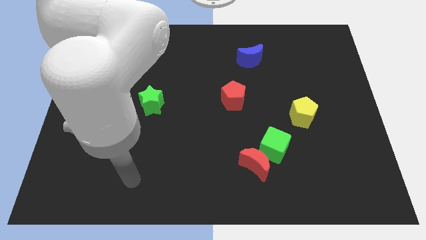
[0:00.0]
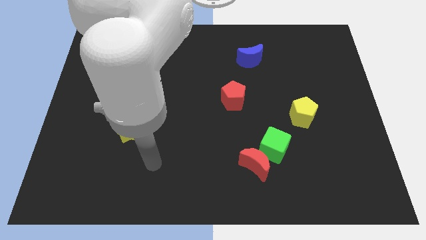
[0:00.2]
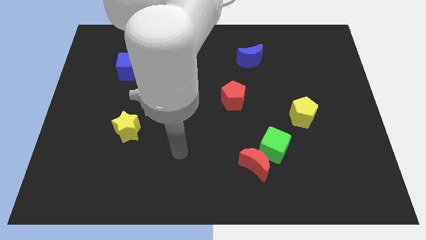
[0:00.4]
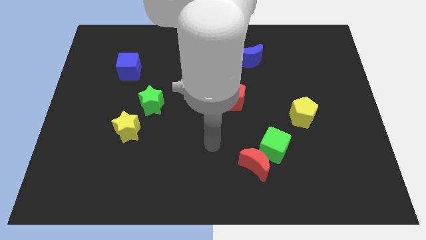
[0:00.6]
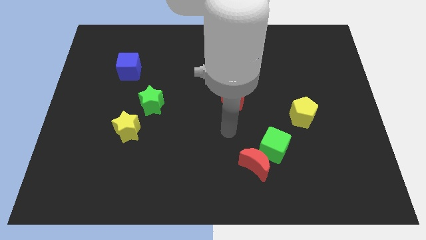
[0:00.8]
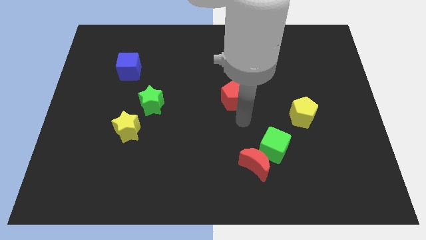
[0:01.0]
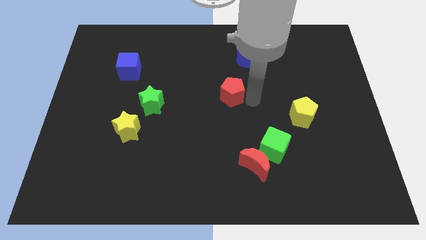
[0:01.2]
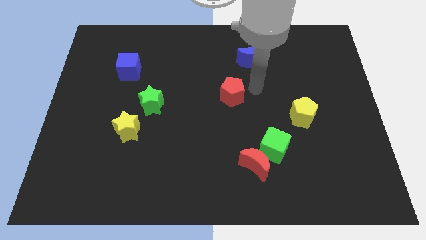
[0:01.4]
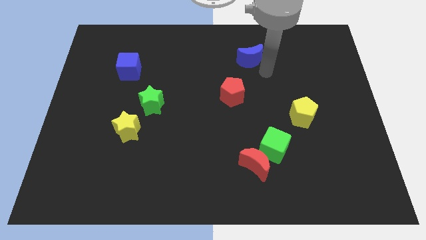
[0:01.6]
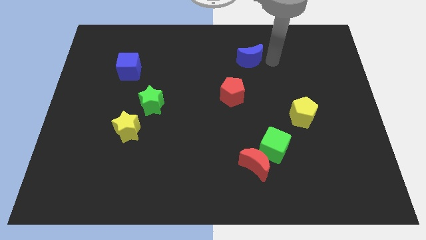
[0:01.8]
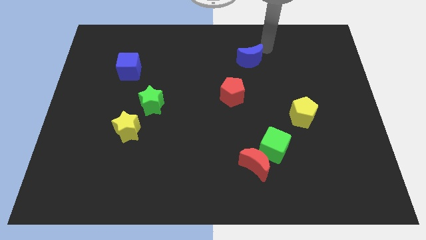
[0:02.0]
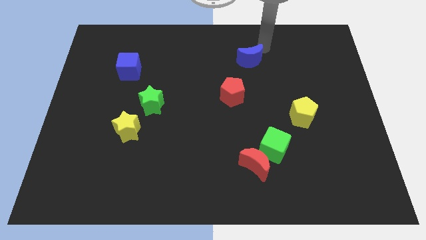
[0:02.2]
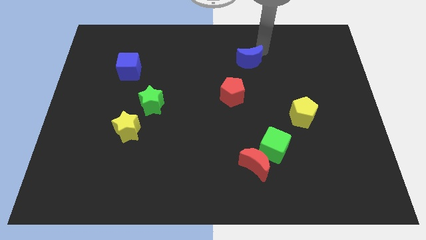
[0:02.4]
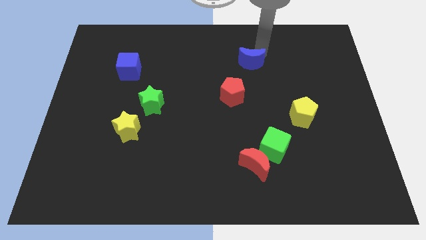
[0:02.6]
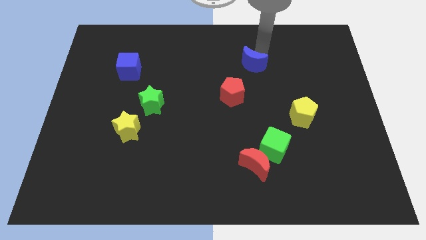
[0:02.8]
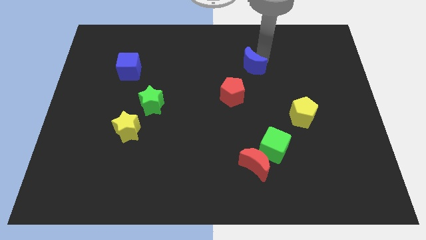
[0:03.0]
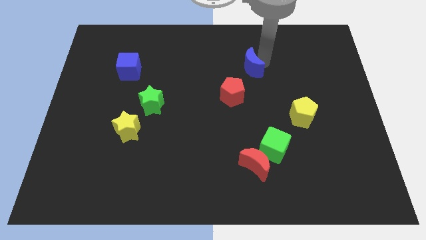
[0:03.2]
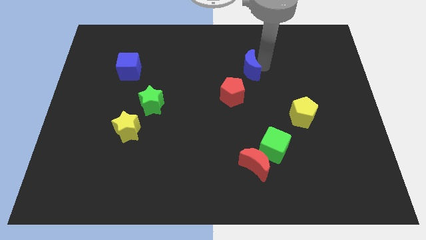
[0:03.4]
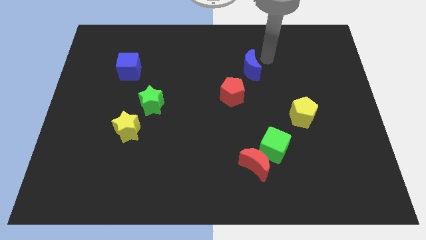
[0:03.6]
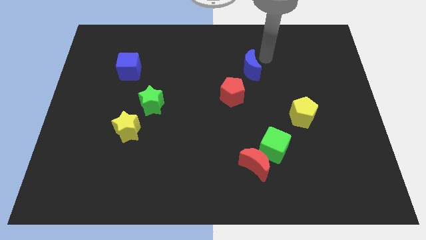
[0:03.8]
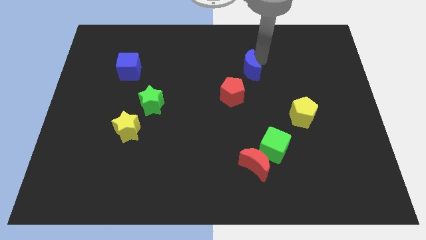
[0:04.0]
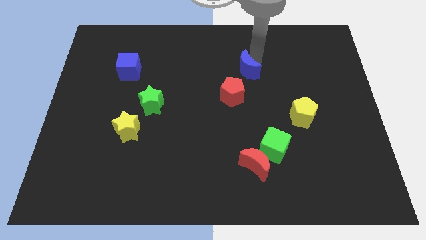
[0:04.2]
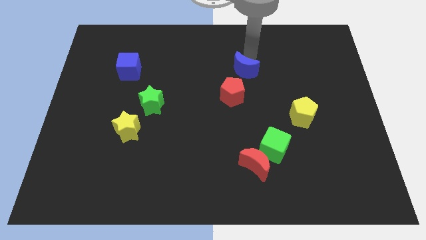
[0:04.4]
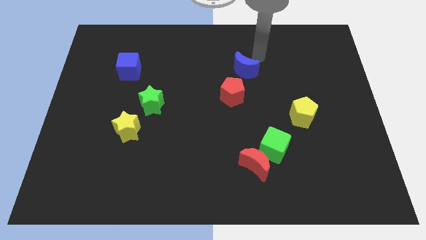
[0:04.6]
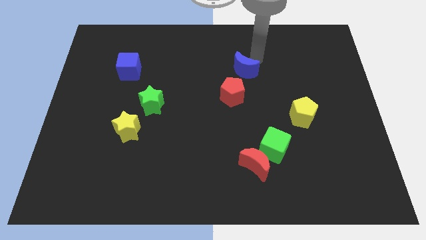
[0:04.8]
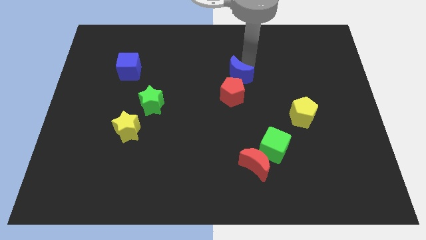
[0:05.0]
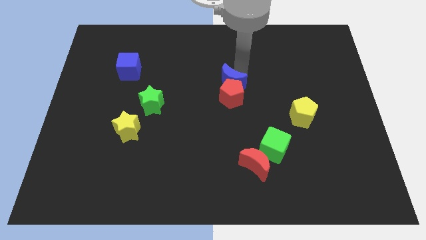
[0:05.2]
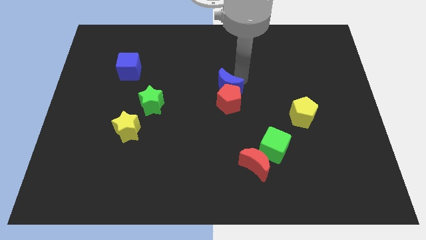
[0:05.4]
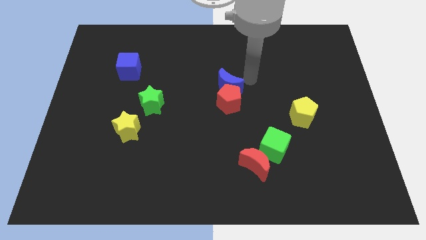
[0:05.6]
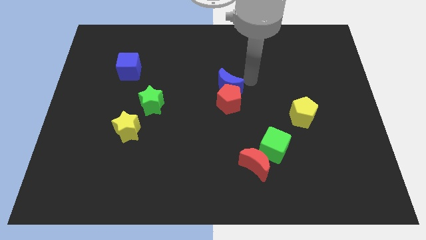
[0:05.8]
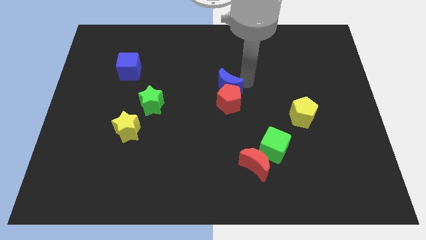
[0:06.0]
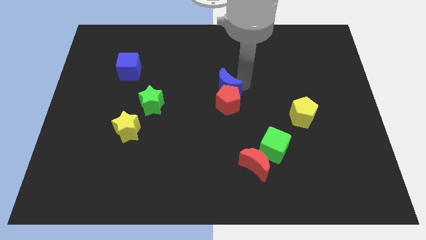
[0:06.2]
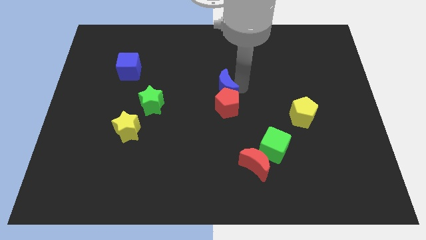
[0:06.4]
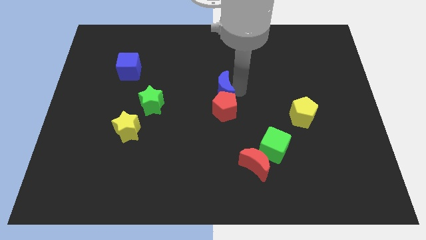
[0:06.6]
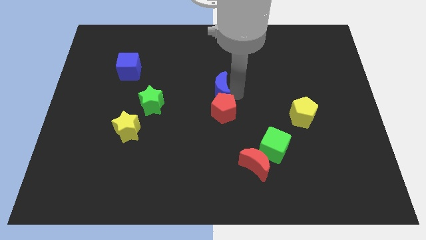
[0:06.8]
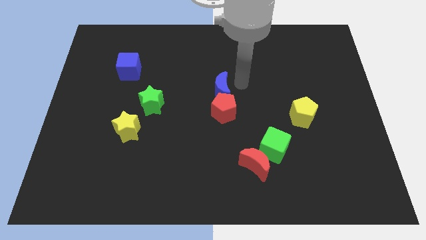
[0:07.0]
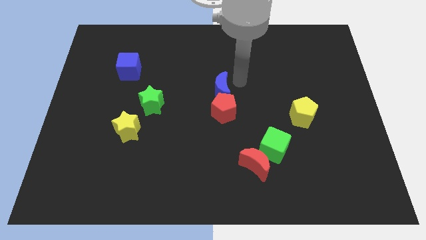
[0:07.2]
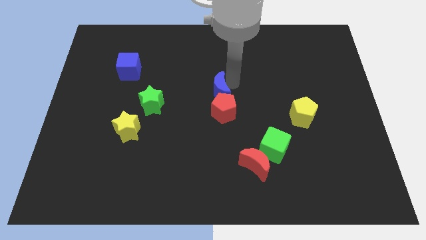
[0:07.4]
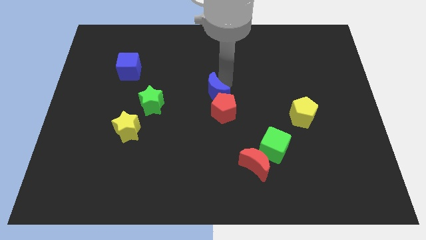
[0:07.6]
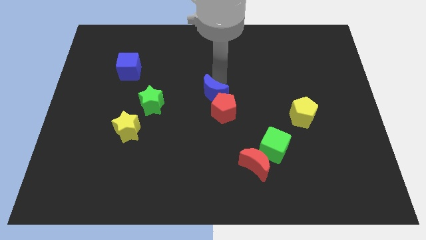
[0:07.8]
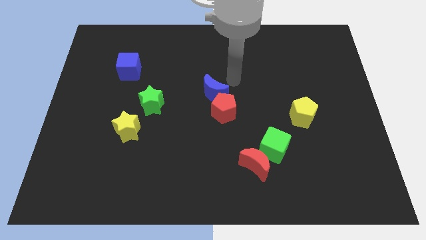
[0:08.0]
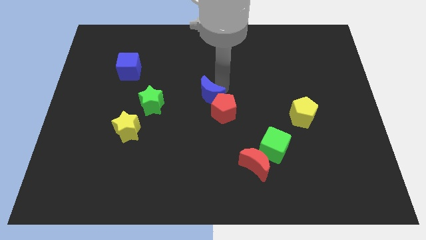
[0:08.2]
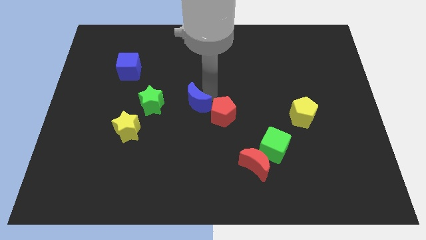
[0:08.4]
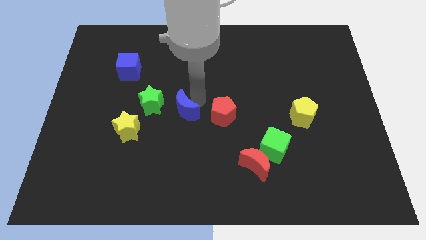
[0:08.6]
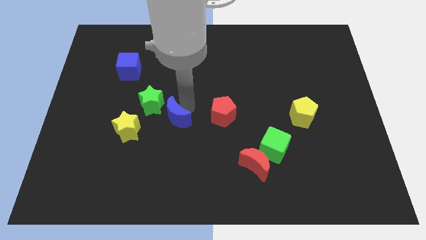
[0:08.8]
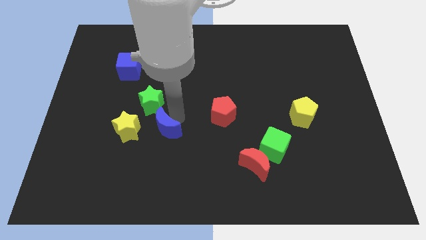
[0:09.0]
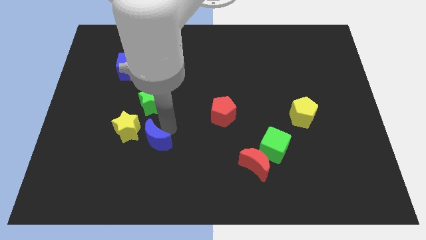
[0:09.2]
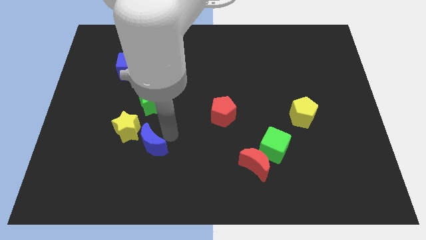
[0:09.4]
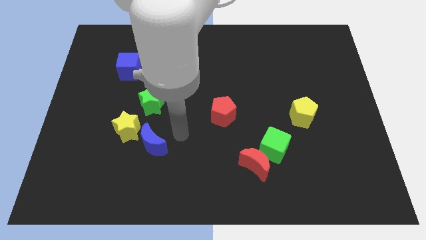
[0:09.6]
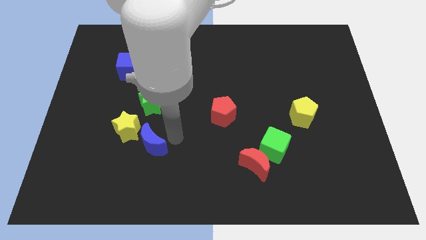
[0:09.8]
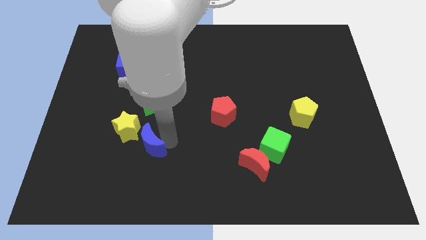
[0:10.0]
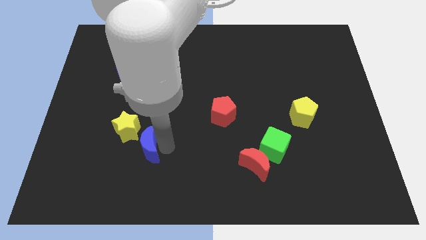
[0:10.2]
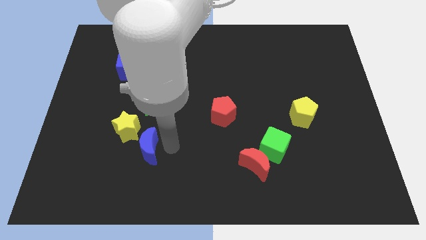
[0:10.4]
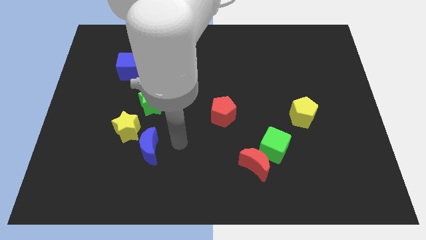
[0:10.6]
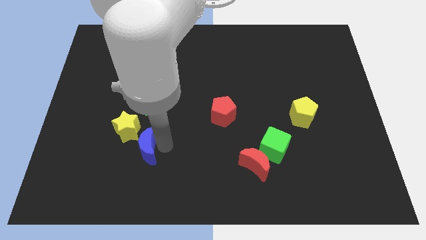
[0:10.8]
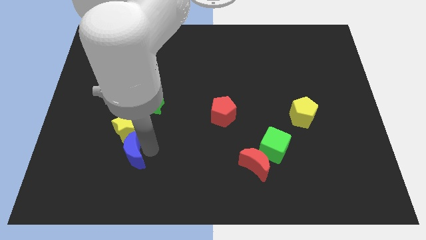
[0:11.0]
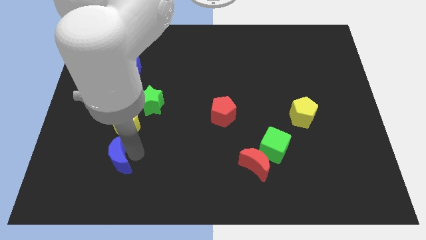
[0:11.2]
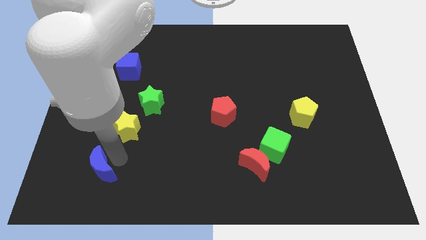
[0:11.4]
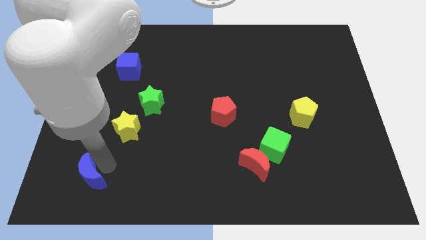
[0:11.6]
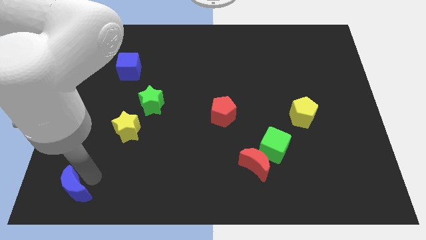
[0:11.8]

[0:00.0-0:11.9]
move the blue moon to the bottom left

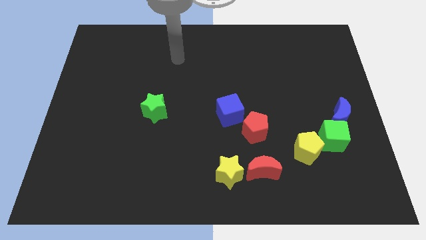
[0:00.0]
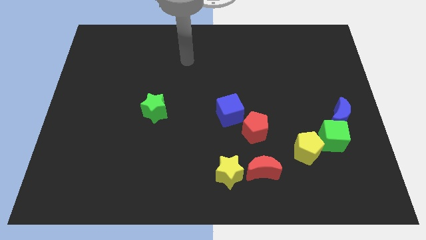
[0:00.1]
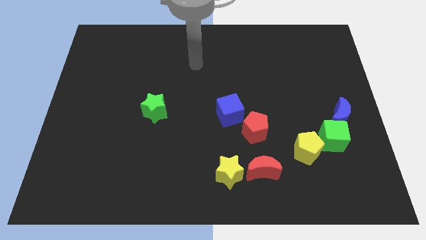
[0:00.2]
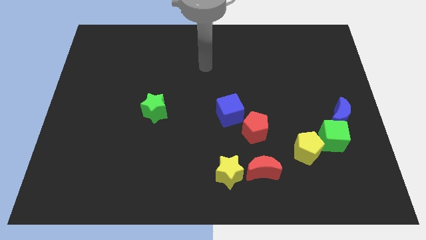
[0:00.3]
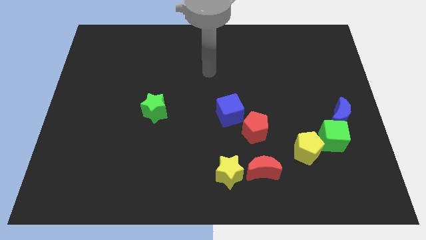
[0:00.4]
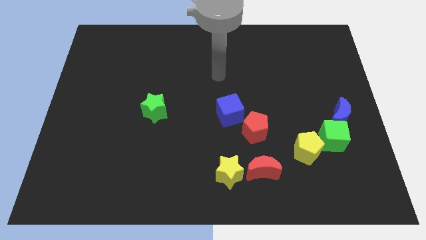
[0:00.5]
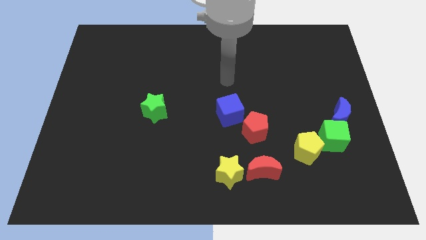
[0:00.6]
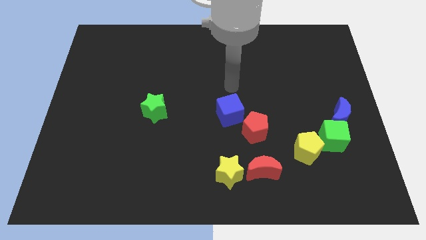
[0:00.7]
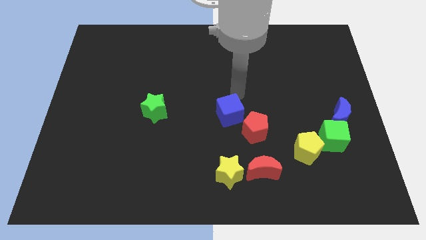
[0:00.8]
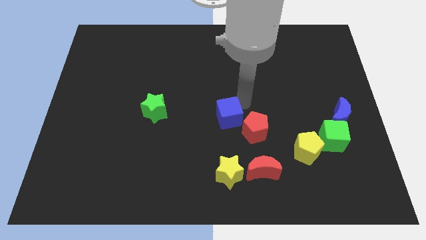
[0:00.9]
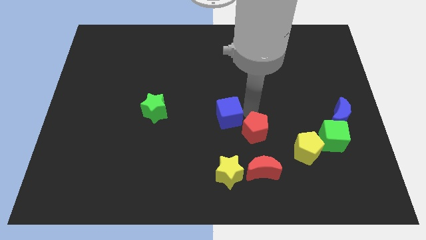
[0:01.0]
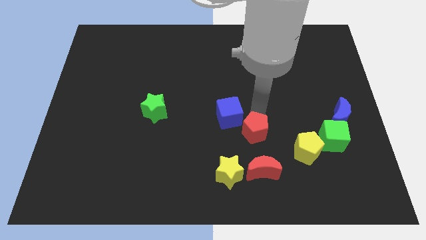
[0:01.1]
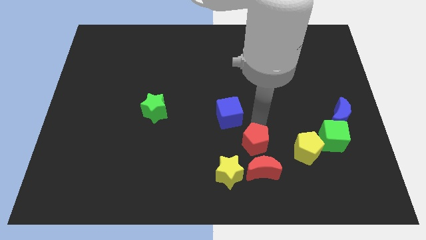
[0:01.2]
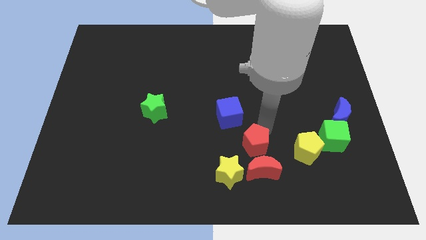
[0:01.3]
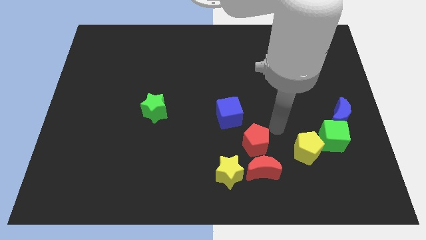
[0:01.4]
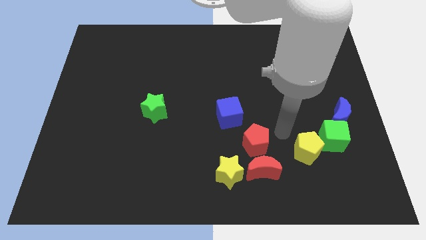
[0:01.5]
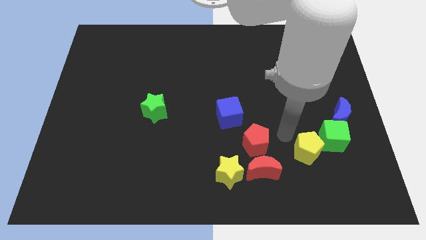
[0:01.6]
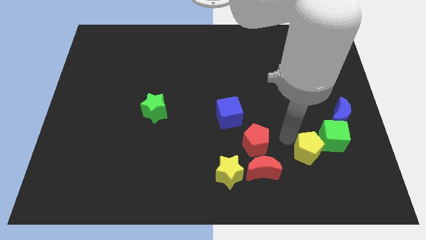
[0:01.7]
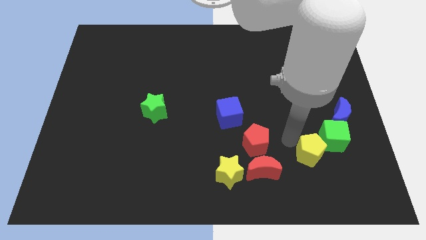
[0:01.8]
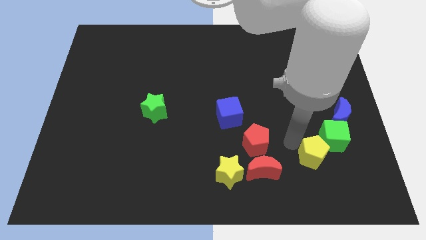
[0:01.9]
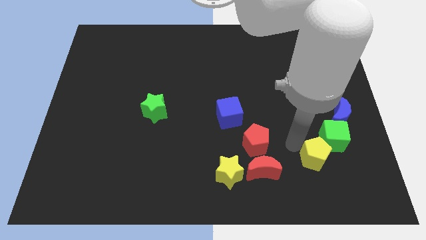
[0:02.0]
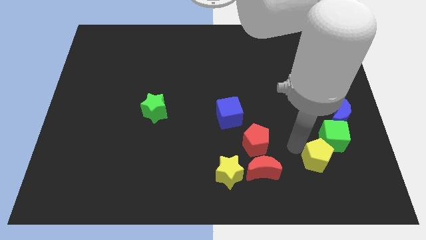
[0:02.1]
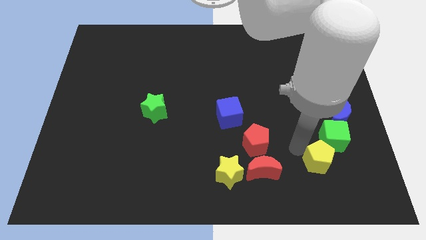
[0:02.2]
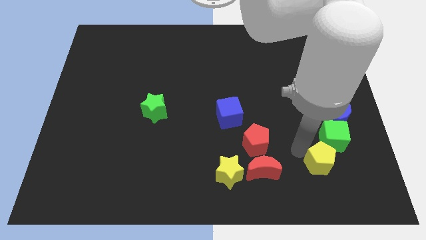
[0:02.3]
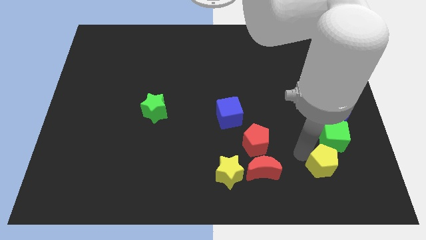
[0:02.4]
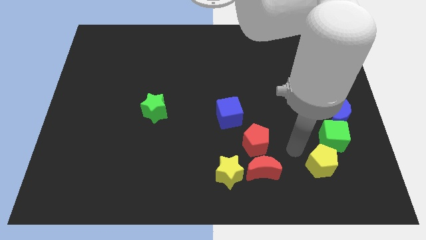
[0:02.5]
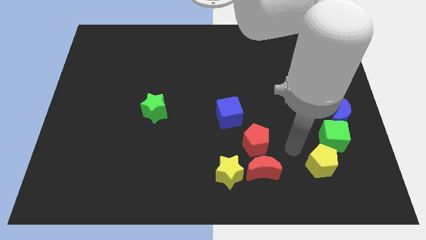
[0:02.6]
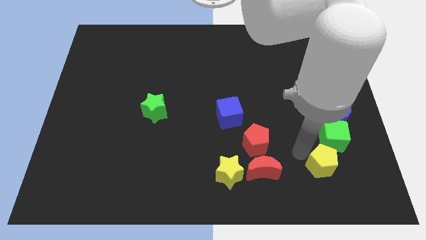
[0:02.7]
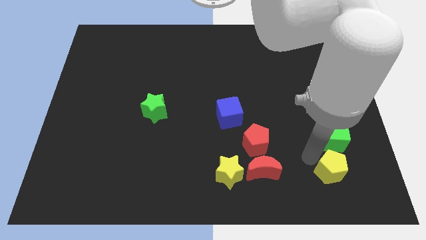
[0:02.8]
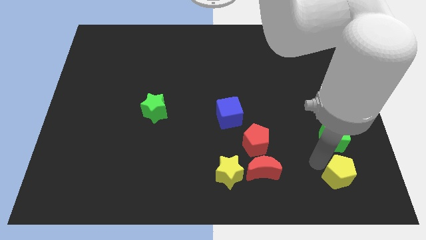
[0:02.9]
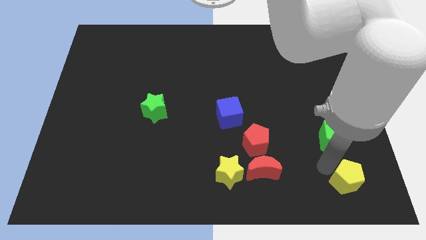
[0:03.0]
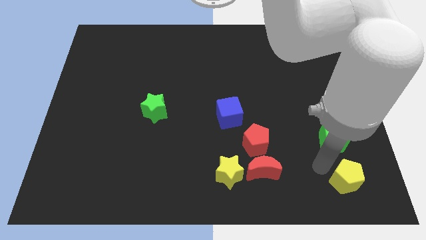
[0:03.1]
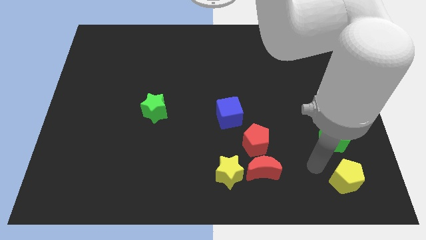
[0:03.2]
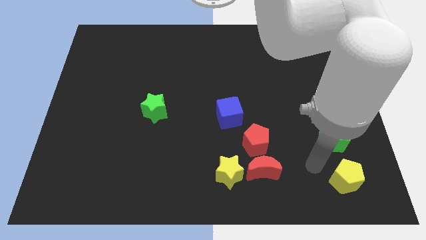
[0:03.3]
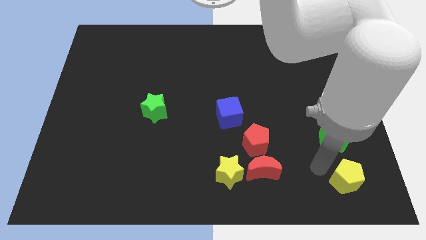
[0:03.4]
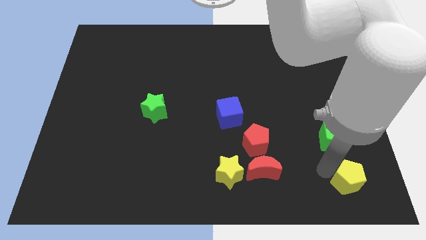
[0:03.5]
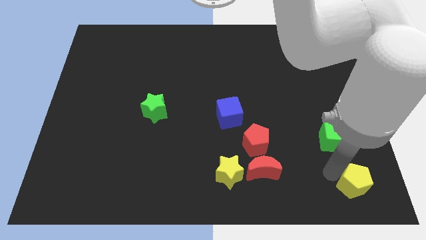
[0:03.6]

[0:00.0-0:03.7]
push the yellow pentagon to the bottom right of the board
